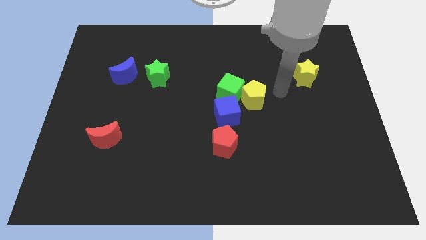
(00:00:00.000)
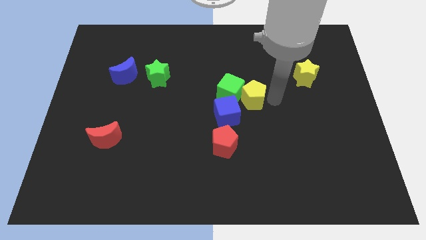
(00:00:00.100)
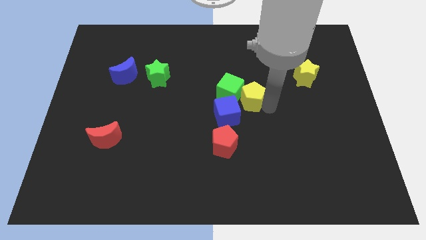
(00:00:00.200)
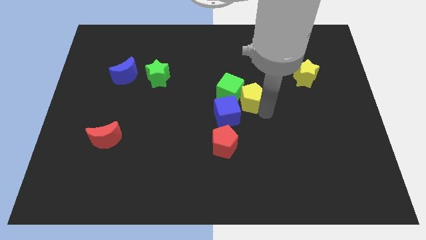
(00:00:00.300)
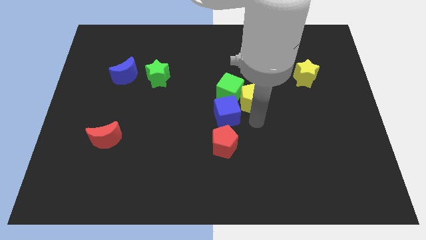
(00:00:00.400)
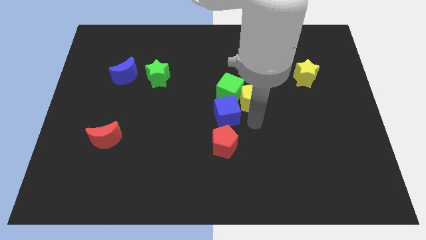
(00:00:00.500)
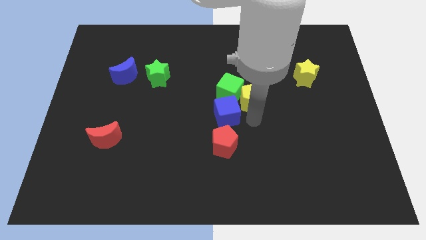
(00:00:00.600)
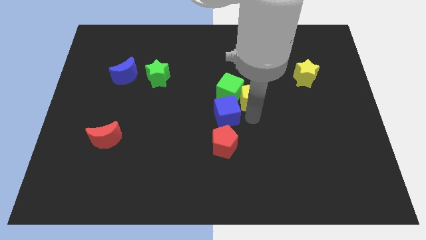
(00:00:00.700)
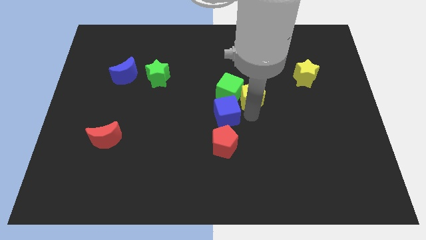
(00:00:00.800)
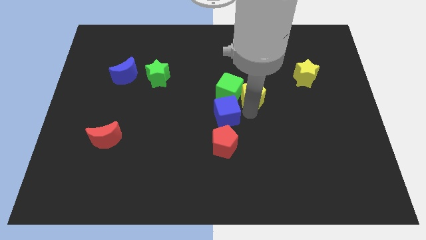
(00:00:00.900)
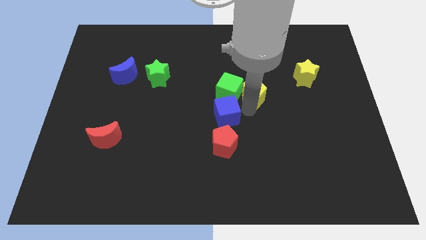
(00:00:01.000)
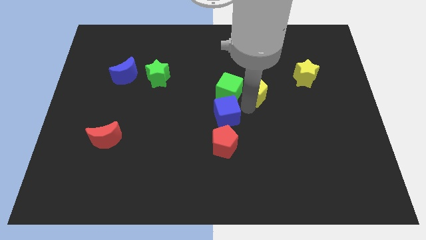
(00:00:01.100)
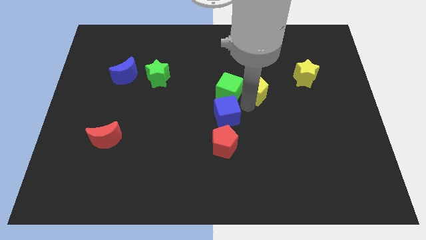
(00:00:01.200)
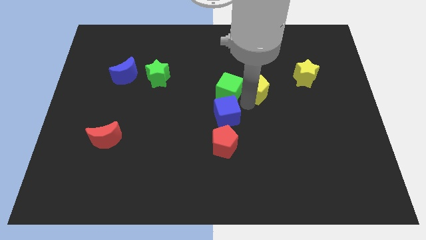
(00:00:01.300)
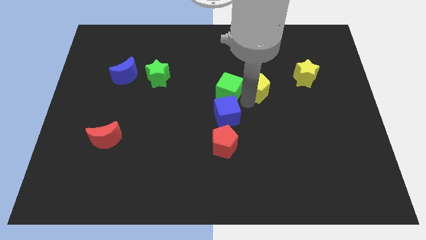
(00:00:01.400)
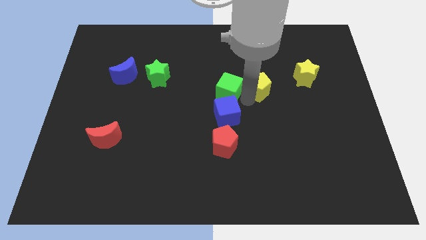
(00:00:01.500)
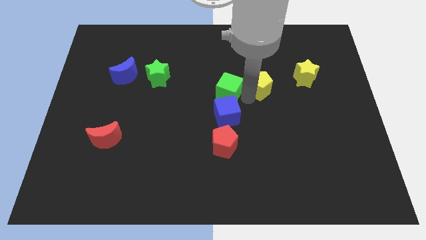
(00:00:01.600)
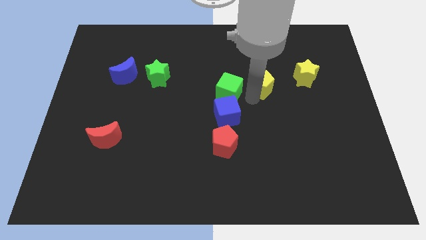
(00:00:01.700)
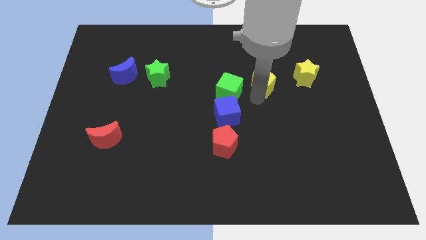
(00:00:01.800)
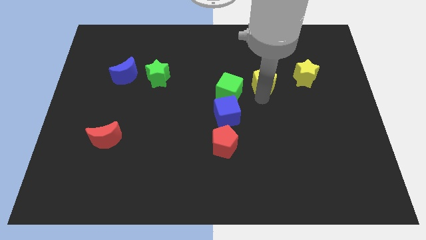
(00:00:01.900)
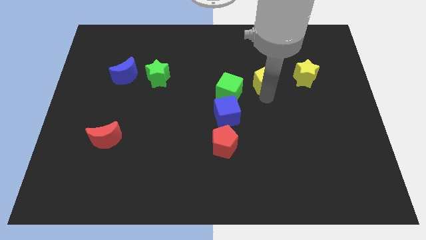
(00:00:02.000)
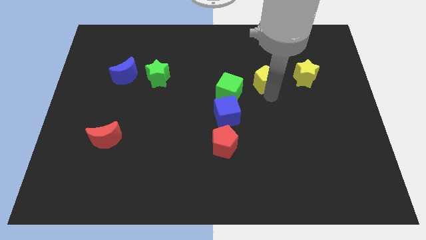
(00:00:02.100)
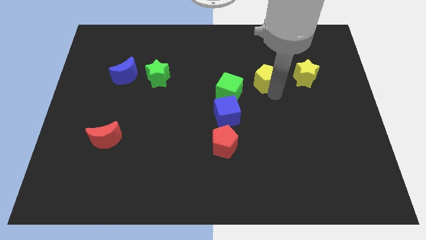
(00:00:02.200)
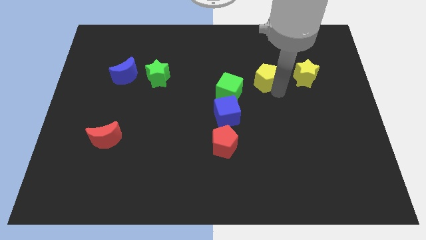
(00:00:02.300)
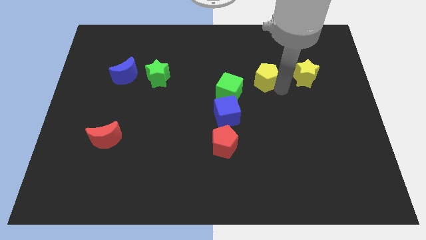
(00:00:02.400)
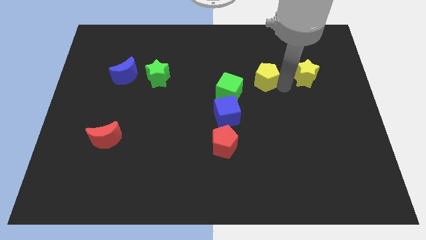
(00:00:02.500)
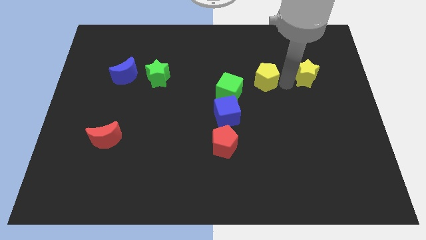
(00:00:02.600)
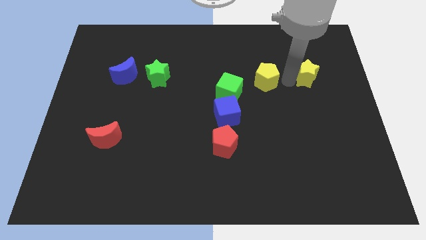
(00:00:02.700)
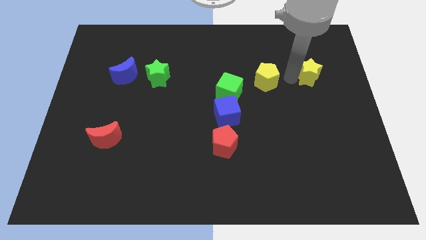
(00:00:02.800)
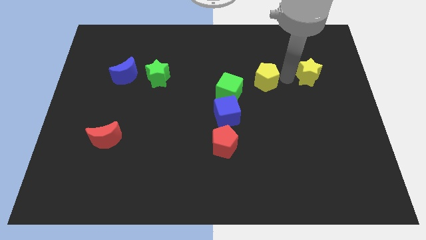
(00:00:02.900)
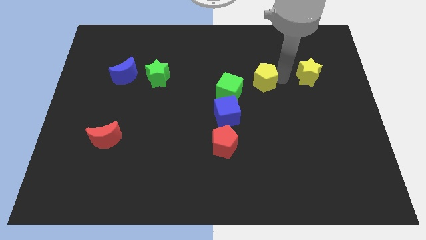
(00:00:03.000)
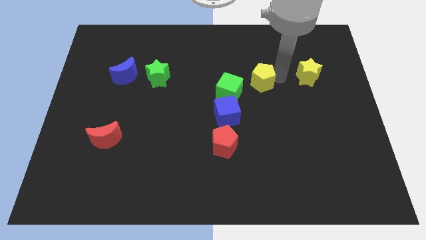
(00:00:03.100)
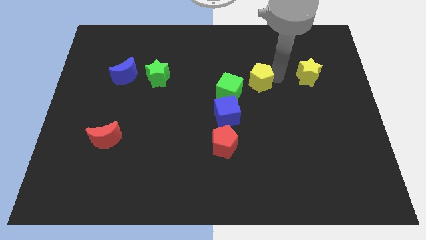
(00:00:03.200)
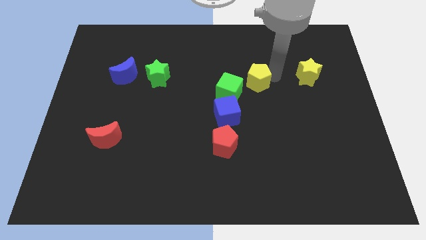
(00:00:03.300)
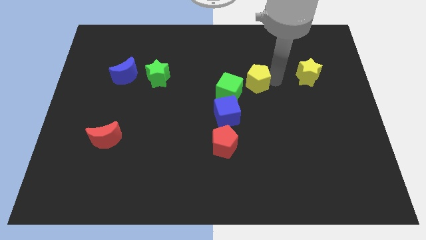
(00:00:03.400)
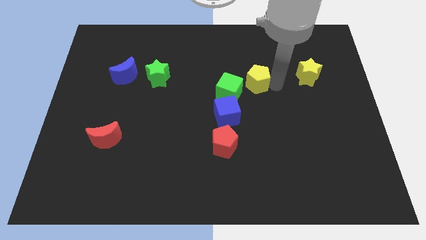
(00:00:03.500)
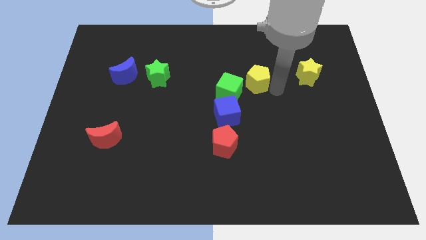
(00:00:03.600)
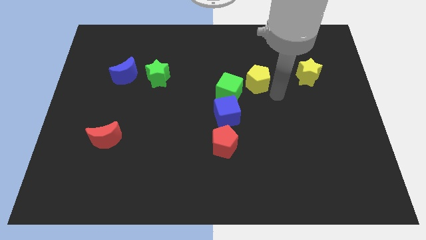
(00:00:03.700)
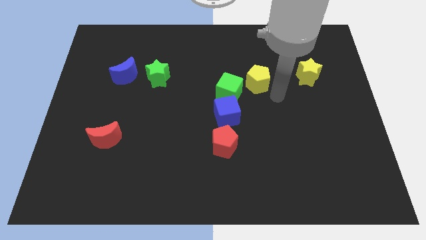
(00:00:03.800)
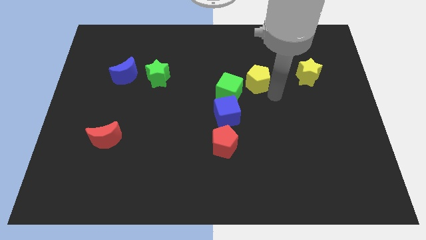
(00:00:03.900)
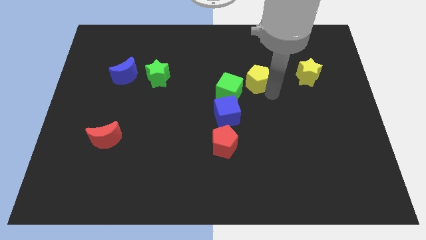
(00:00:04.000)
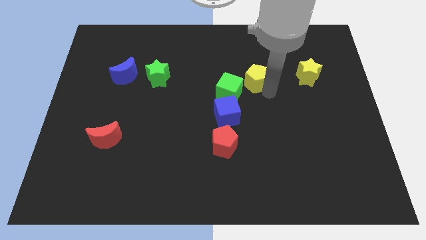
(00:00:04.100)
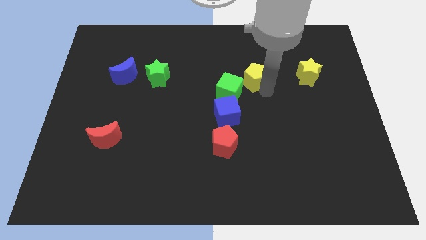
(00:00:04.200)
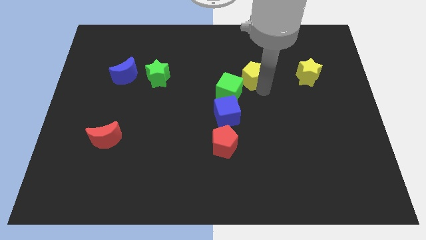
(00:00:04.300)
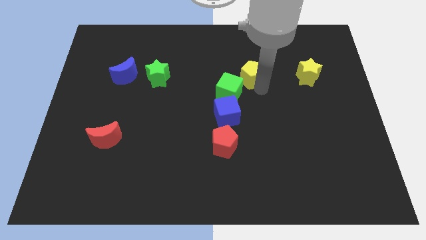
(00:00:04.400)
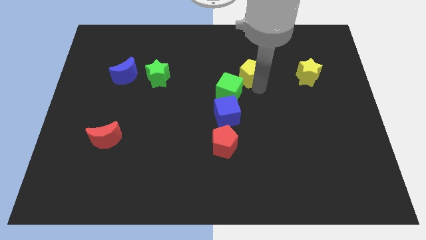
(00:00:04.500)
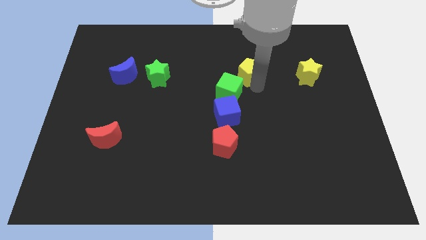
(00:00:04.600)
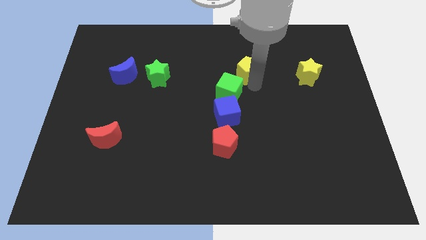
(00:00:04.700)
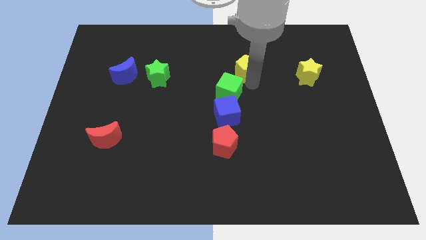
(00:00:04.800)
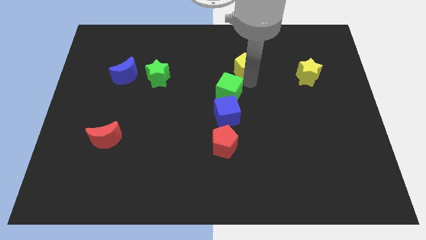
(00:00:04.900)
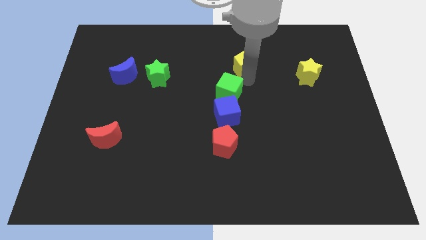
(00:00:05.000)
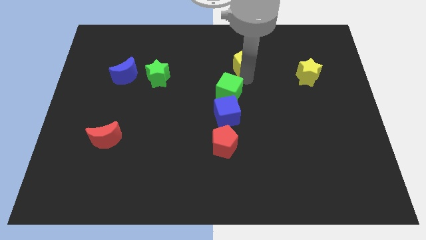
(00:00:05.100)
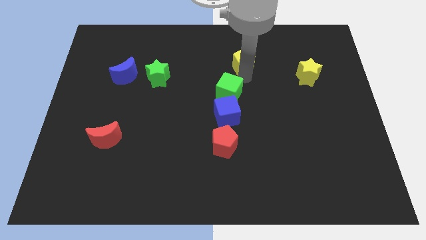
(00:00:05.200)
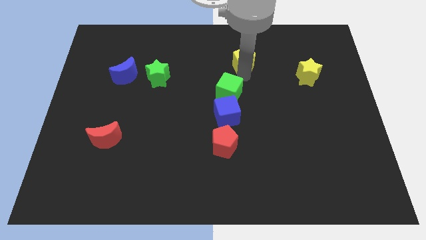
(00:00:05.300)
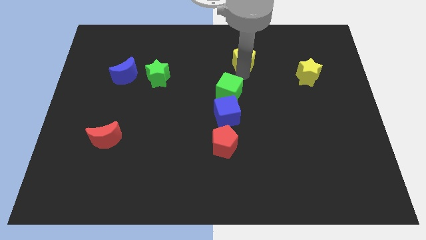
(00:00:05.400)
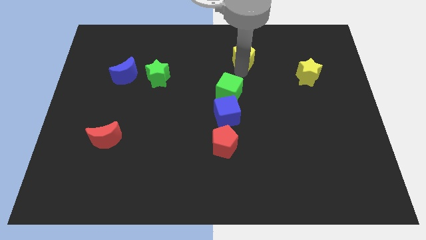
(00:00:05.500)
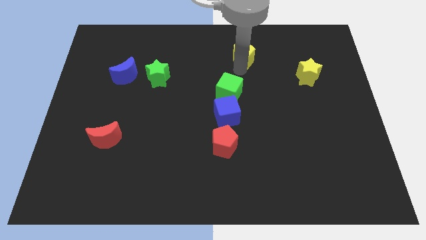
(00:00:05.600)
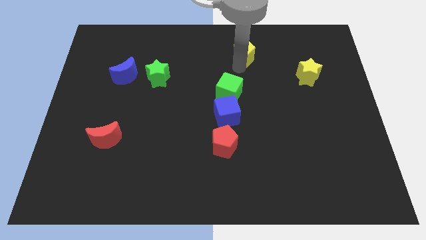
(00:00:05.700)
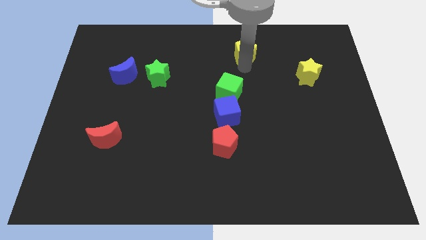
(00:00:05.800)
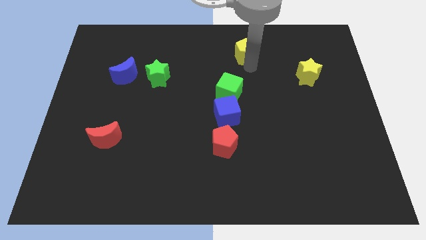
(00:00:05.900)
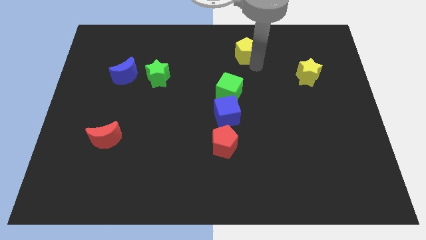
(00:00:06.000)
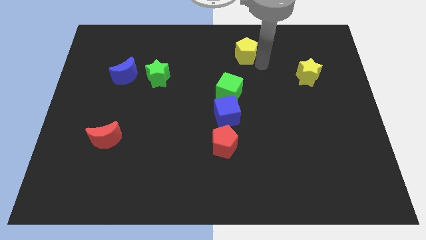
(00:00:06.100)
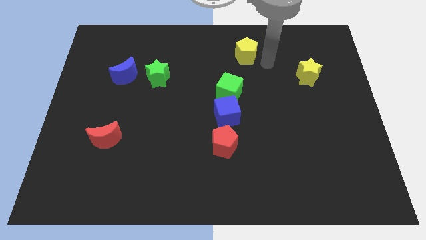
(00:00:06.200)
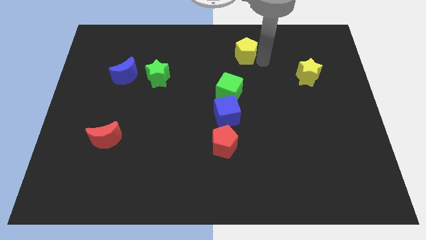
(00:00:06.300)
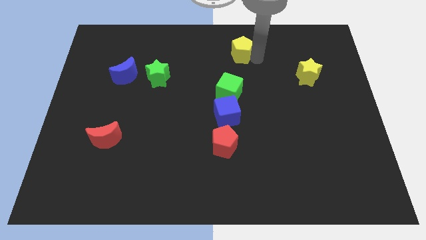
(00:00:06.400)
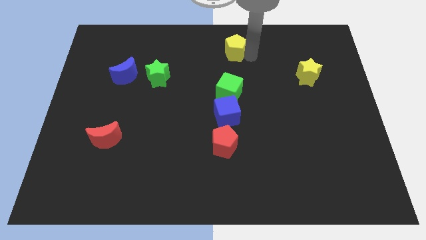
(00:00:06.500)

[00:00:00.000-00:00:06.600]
put the yellow pentagon to the towards your base

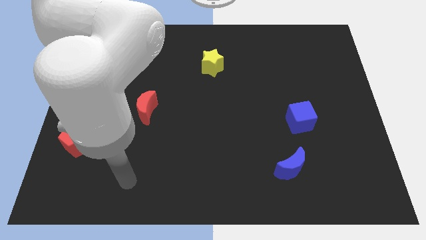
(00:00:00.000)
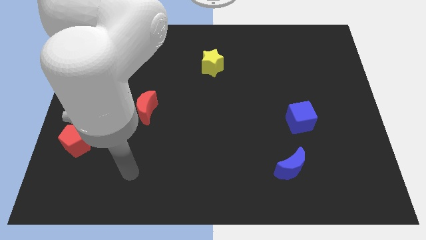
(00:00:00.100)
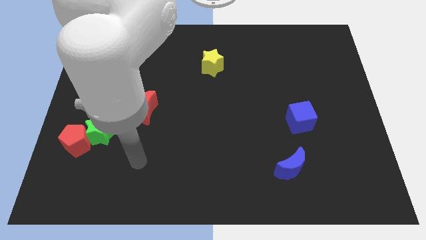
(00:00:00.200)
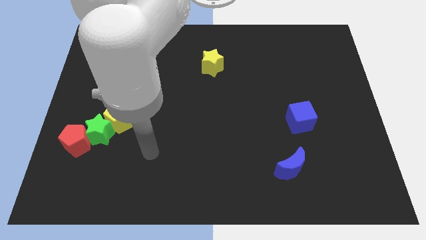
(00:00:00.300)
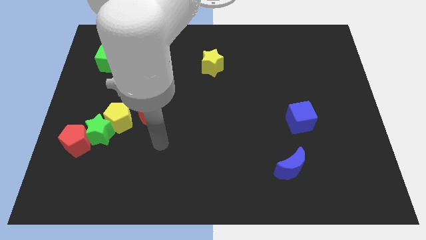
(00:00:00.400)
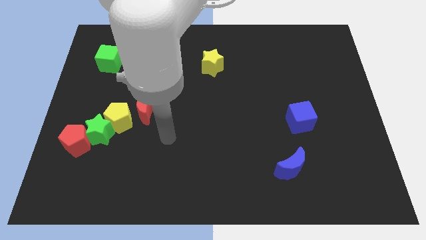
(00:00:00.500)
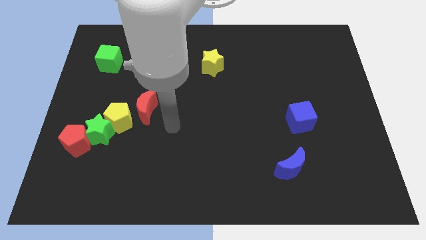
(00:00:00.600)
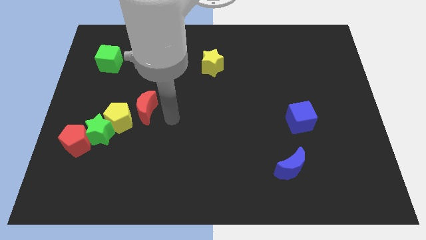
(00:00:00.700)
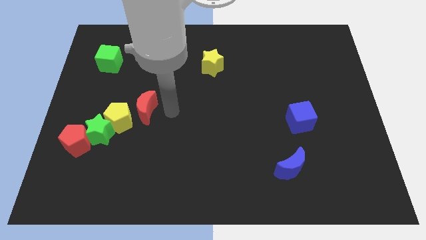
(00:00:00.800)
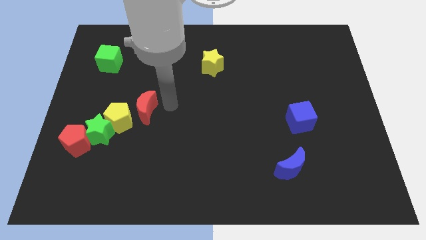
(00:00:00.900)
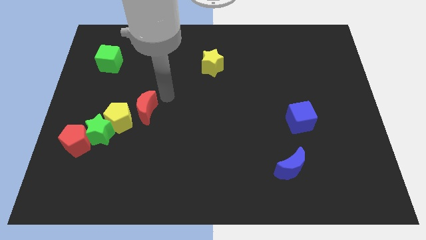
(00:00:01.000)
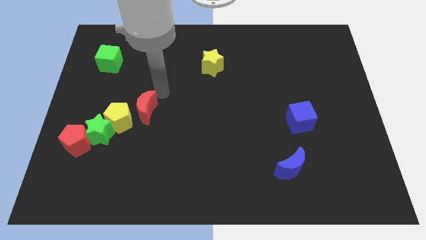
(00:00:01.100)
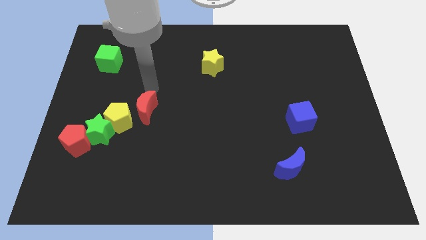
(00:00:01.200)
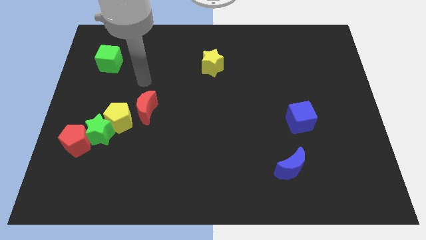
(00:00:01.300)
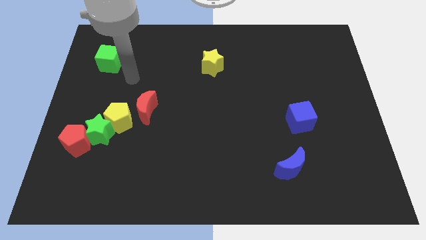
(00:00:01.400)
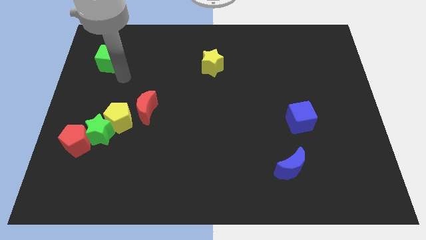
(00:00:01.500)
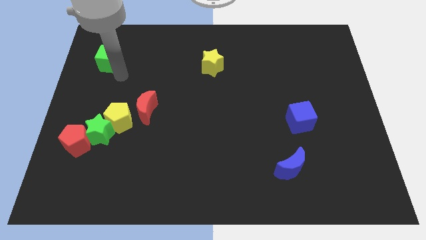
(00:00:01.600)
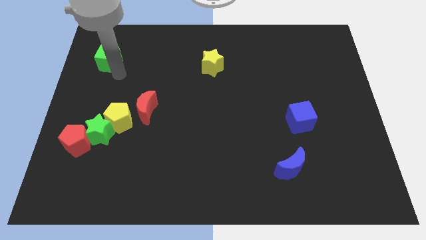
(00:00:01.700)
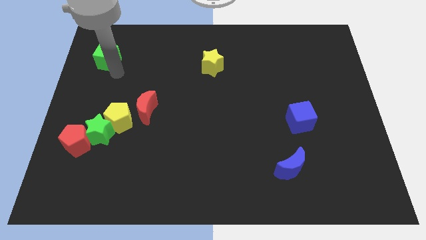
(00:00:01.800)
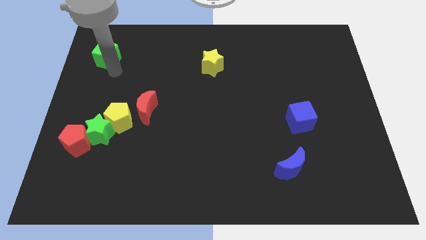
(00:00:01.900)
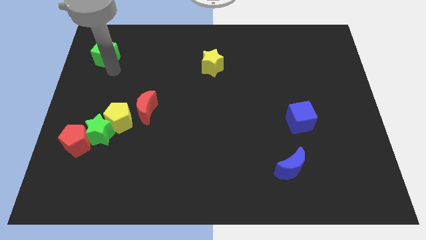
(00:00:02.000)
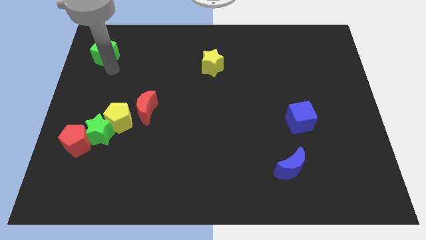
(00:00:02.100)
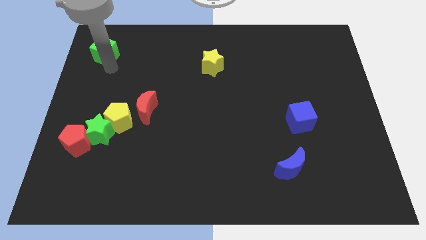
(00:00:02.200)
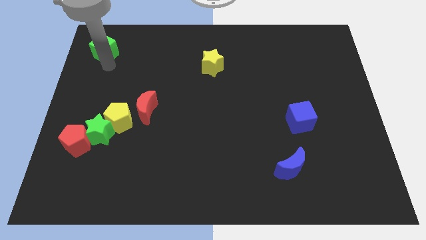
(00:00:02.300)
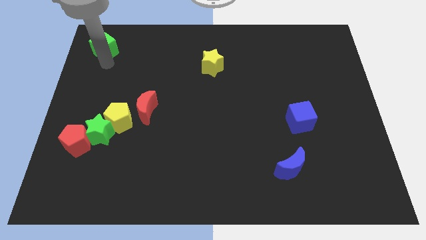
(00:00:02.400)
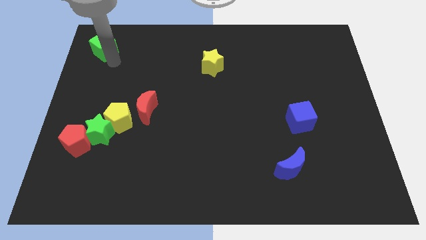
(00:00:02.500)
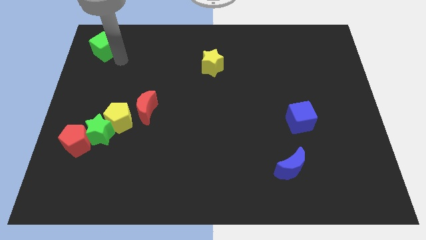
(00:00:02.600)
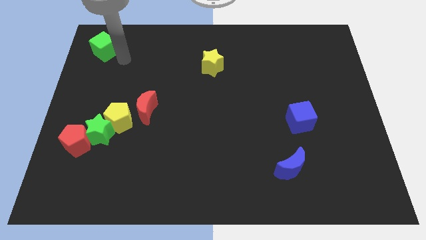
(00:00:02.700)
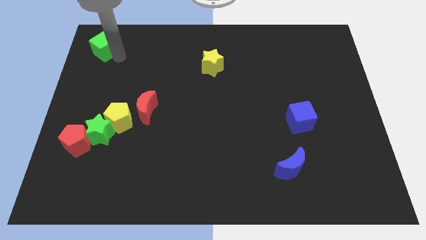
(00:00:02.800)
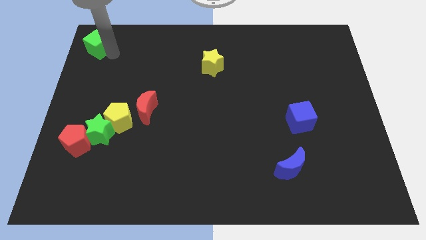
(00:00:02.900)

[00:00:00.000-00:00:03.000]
move the green cube to the upper left corner
